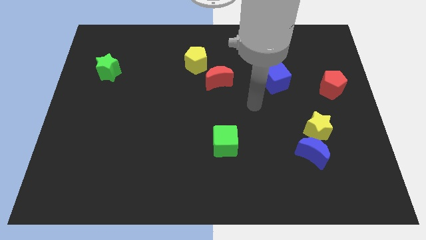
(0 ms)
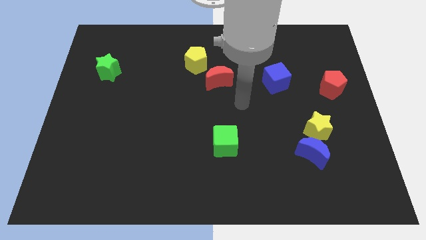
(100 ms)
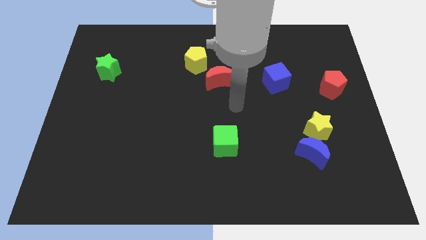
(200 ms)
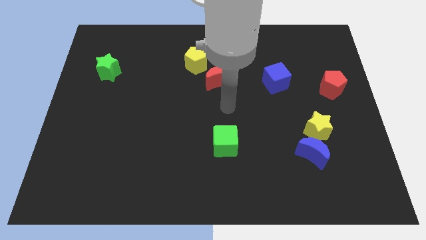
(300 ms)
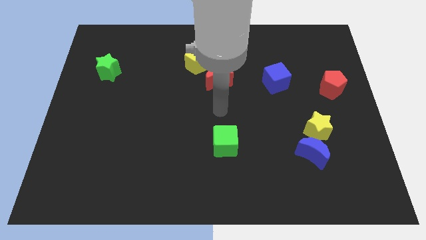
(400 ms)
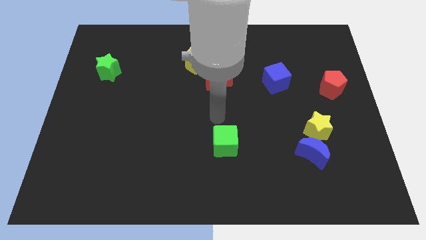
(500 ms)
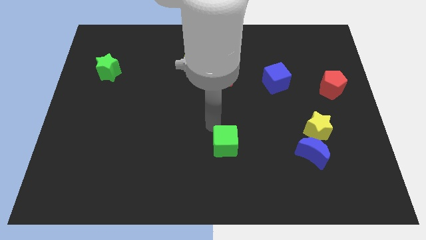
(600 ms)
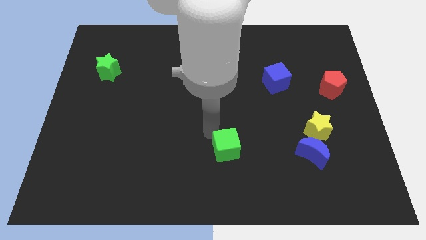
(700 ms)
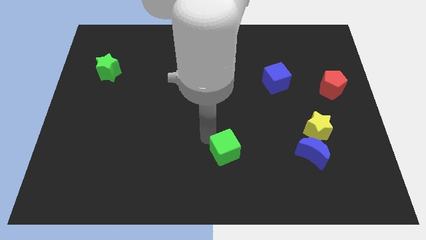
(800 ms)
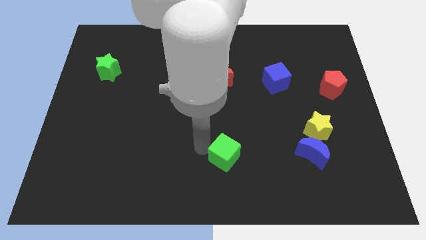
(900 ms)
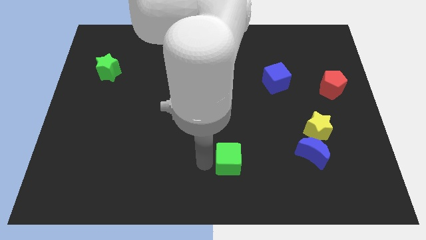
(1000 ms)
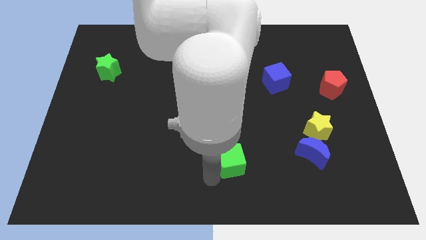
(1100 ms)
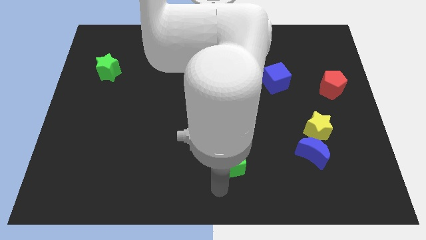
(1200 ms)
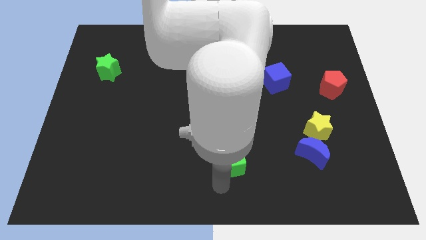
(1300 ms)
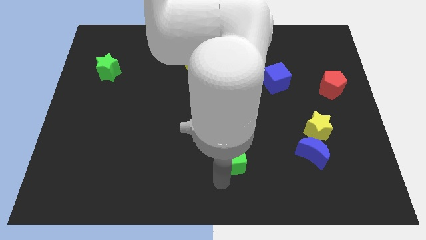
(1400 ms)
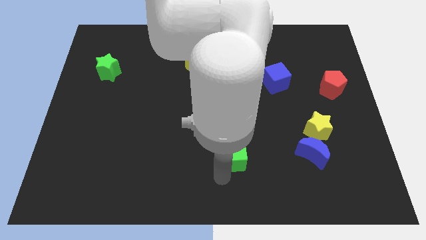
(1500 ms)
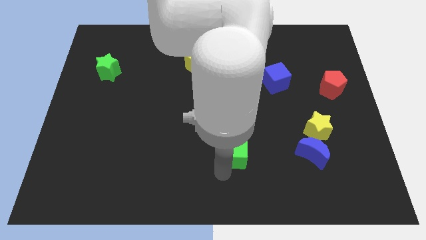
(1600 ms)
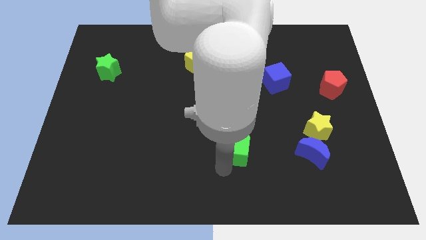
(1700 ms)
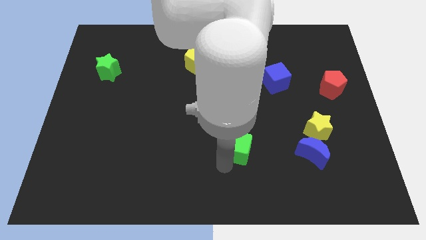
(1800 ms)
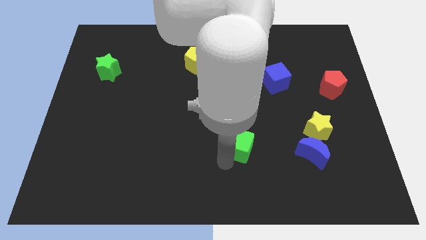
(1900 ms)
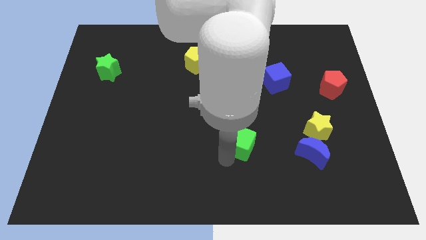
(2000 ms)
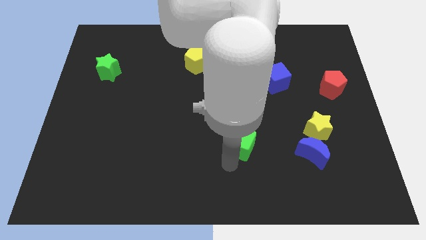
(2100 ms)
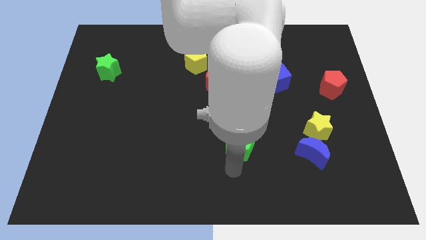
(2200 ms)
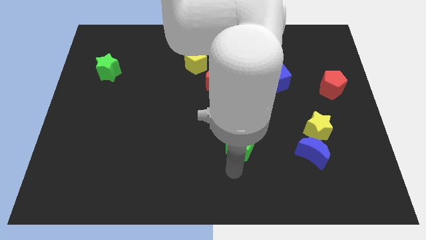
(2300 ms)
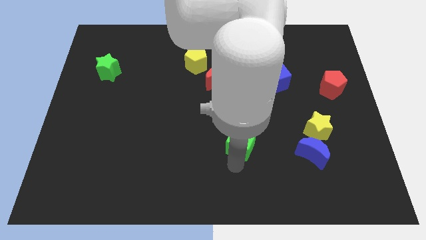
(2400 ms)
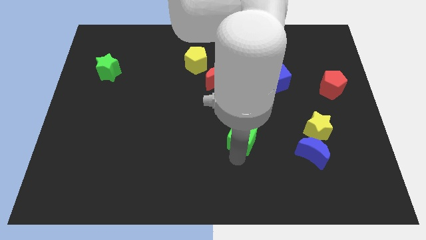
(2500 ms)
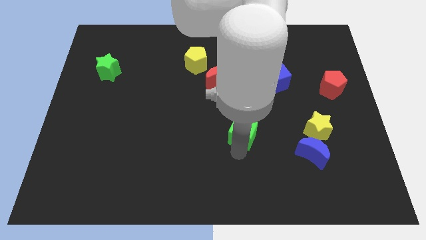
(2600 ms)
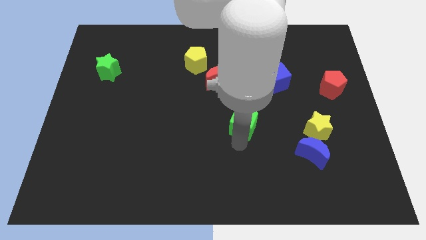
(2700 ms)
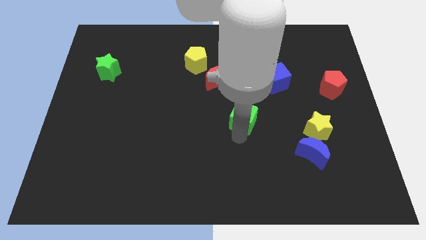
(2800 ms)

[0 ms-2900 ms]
slightly slide the green cube upwards and to the right

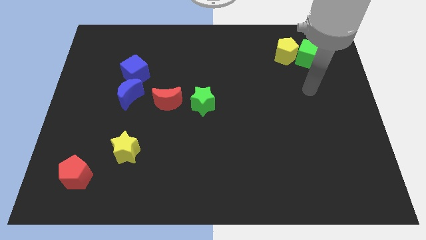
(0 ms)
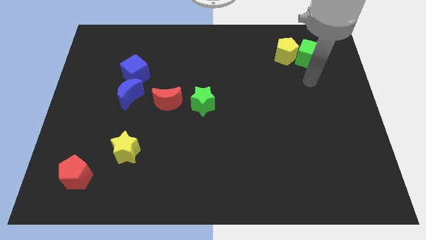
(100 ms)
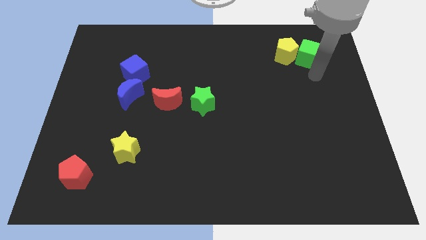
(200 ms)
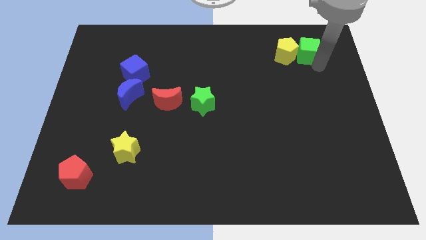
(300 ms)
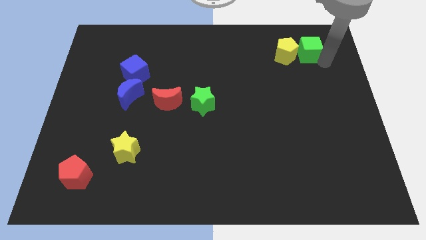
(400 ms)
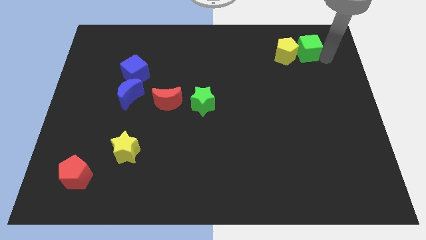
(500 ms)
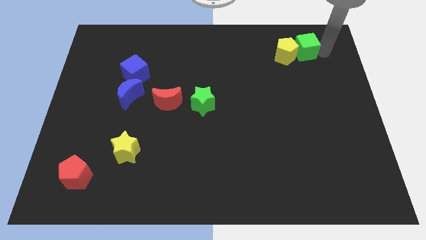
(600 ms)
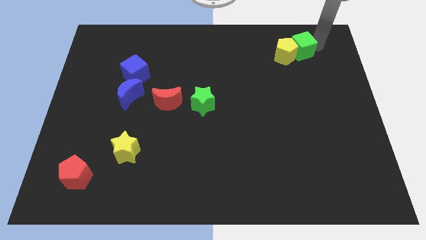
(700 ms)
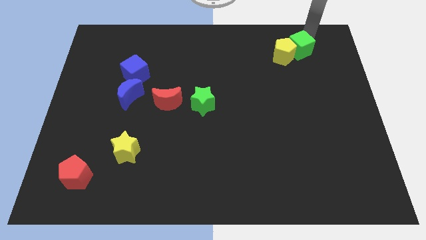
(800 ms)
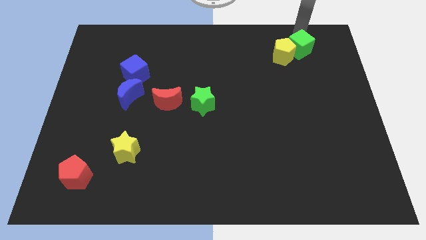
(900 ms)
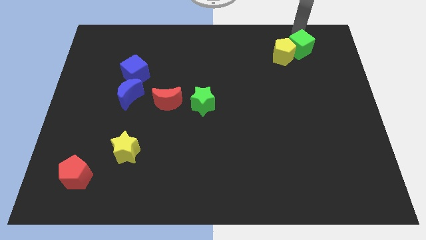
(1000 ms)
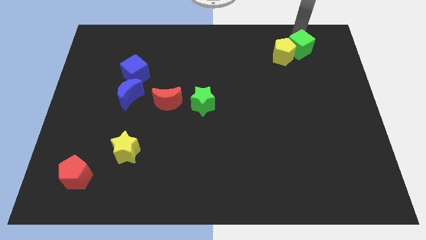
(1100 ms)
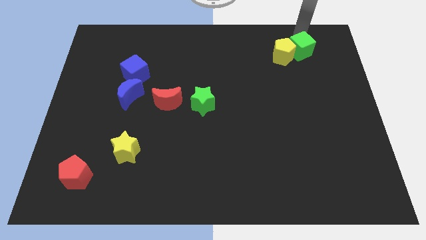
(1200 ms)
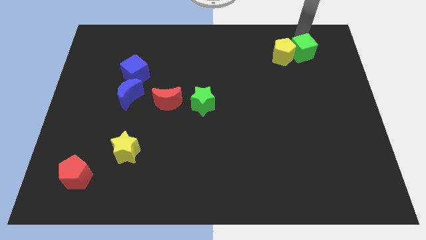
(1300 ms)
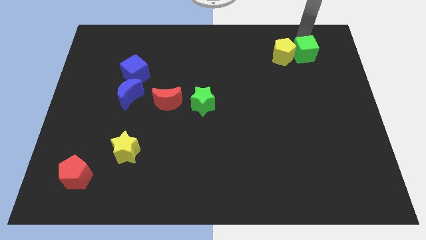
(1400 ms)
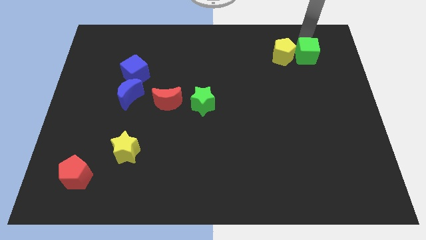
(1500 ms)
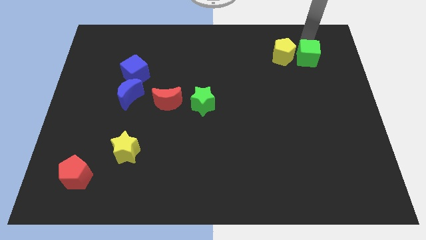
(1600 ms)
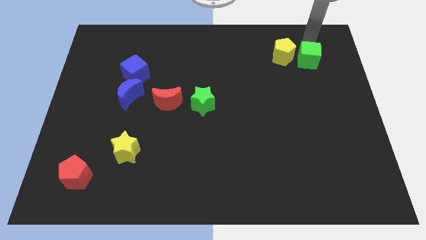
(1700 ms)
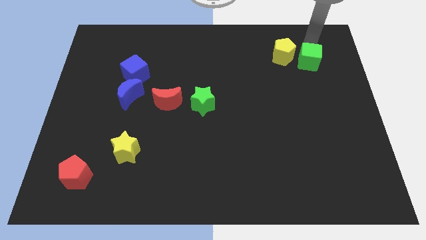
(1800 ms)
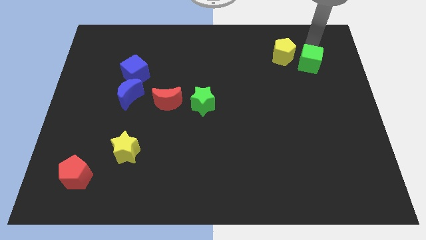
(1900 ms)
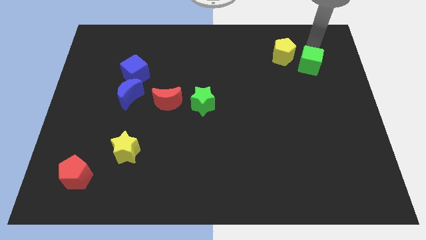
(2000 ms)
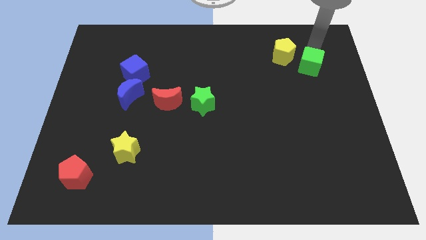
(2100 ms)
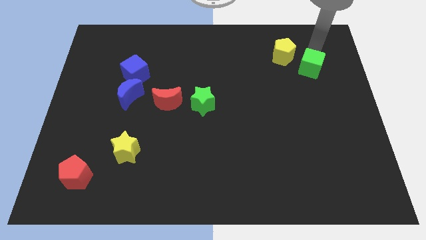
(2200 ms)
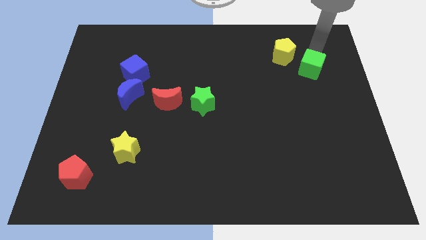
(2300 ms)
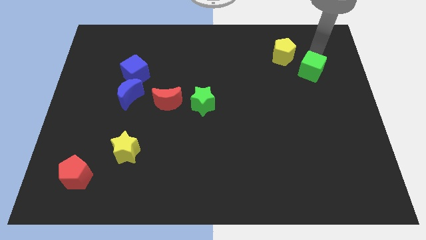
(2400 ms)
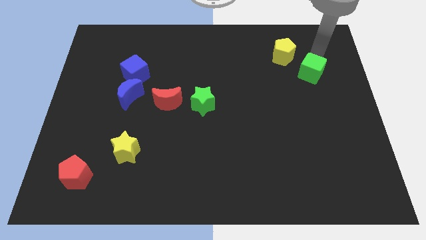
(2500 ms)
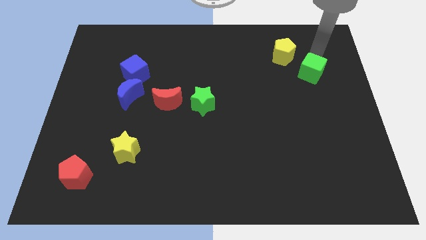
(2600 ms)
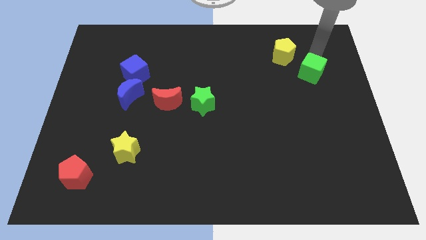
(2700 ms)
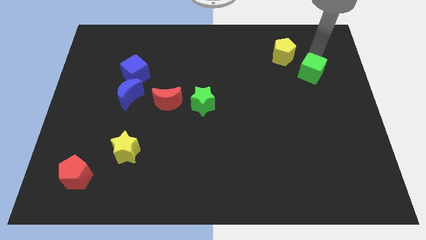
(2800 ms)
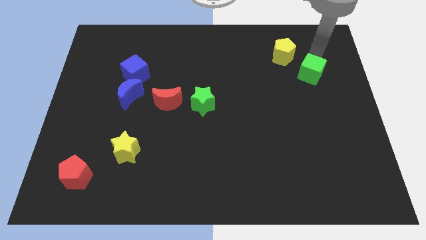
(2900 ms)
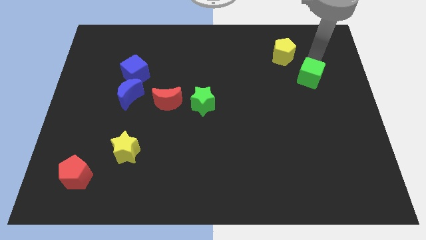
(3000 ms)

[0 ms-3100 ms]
move the green cube downwards a bit

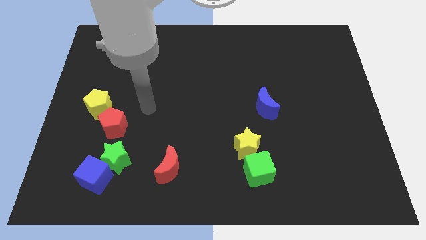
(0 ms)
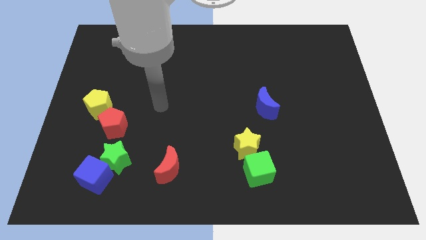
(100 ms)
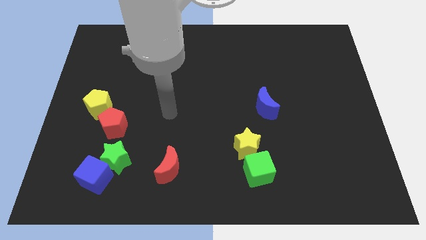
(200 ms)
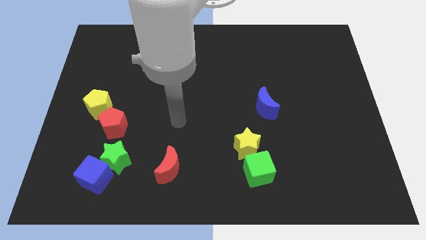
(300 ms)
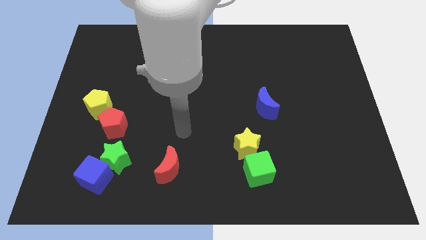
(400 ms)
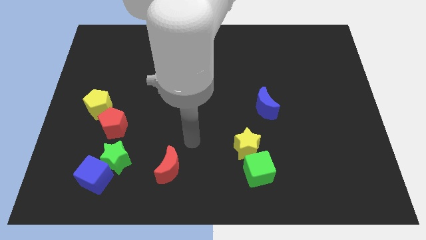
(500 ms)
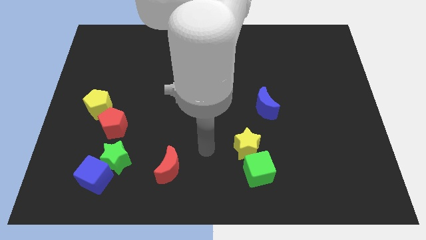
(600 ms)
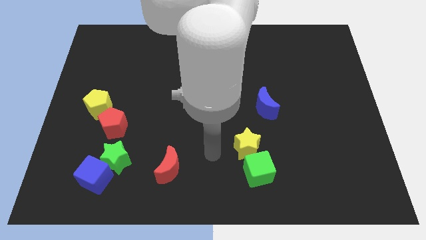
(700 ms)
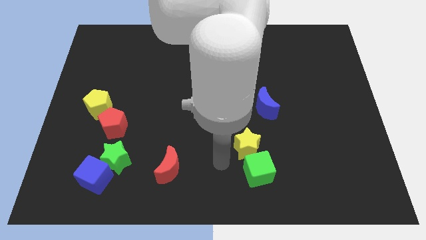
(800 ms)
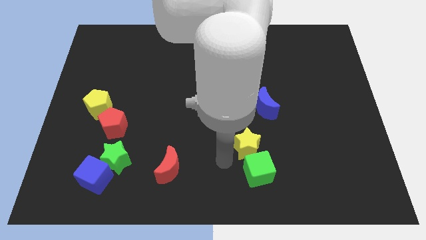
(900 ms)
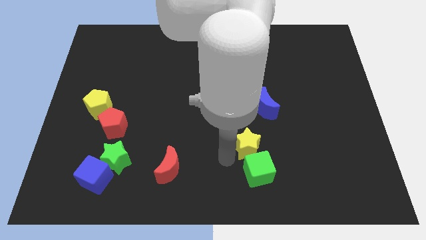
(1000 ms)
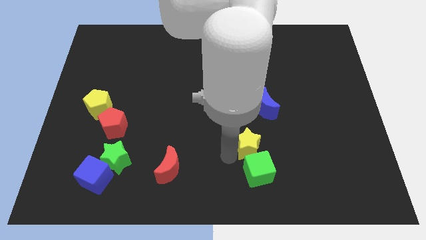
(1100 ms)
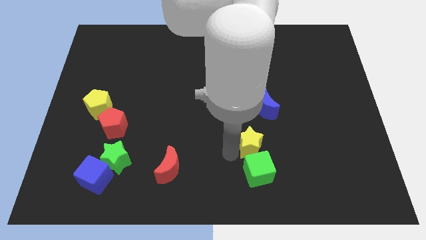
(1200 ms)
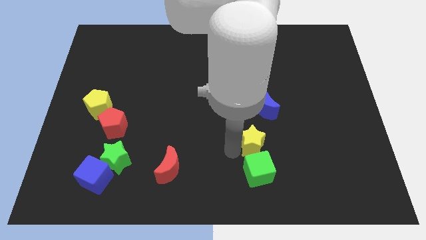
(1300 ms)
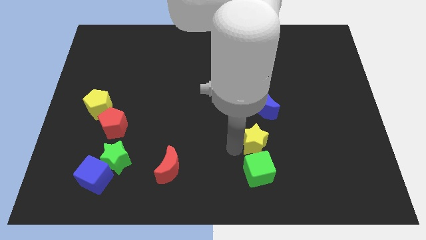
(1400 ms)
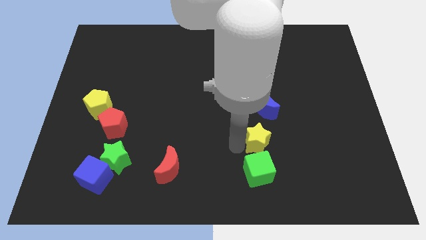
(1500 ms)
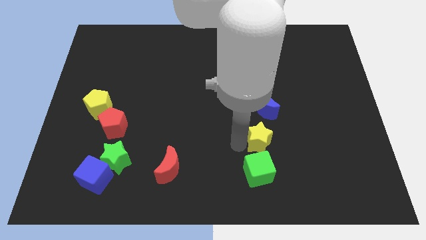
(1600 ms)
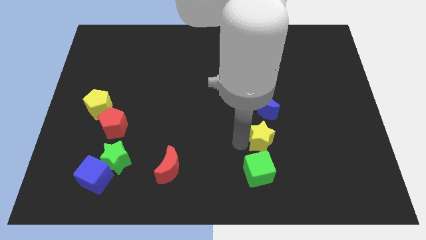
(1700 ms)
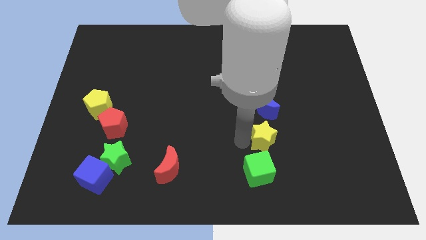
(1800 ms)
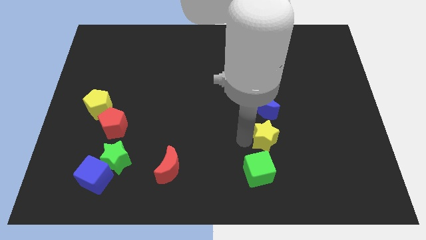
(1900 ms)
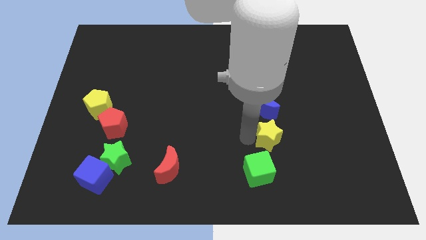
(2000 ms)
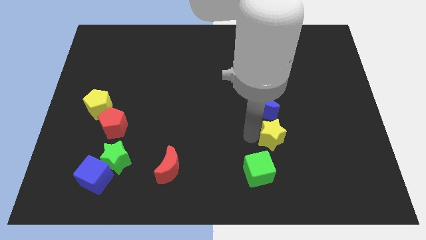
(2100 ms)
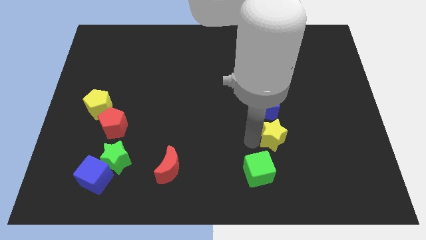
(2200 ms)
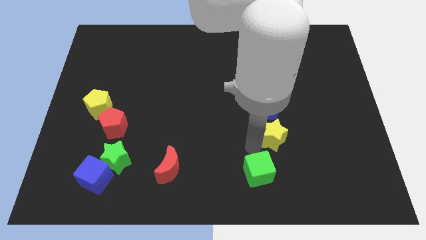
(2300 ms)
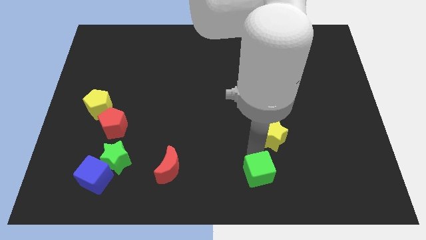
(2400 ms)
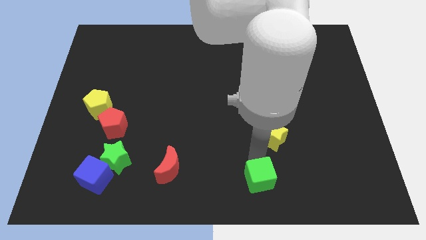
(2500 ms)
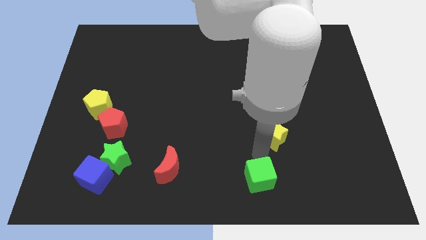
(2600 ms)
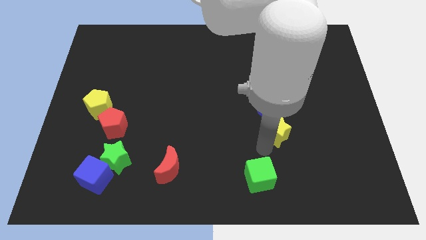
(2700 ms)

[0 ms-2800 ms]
slightly push the yellow star diagonally upwards and right
